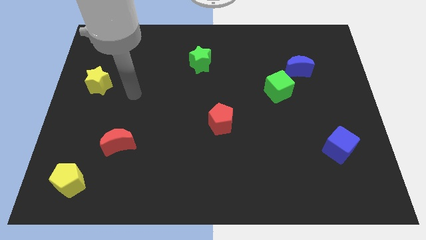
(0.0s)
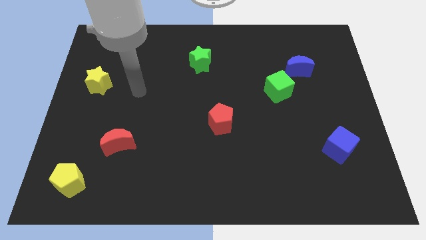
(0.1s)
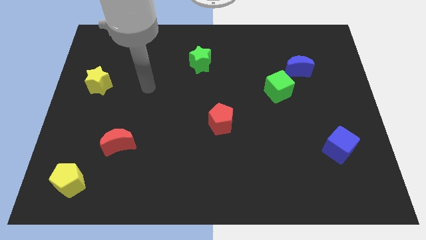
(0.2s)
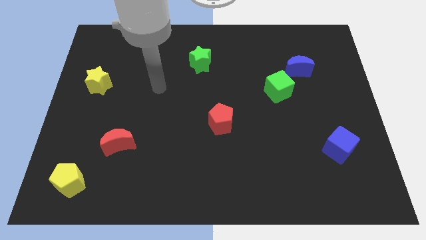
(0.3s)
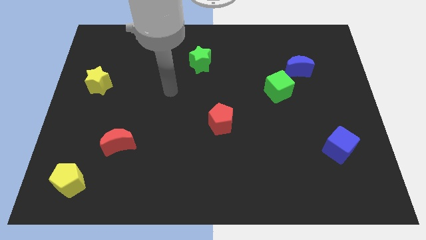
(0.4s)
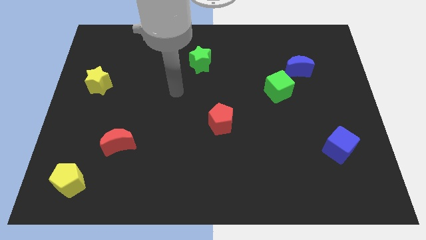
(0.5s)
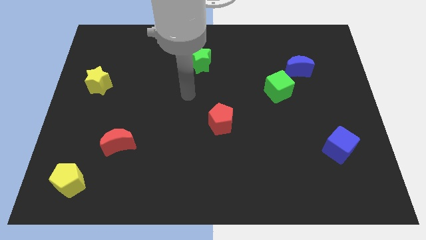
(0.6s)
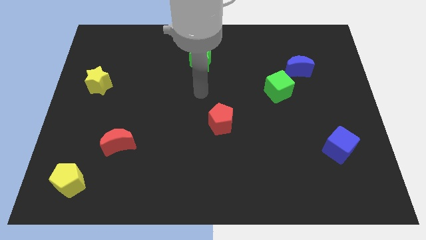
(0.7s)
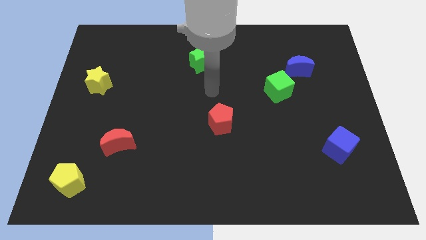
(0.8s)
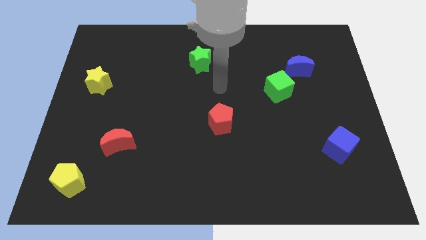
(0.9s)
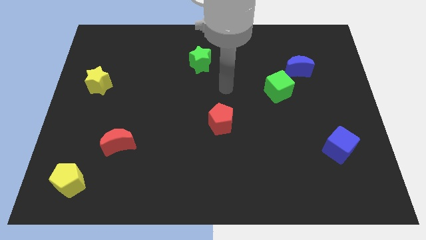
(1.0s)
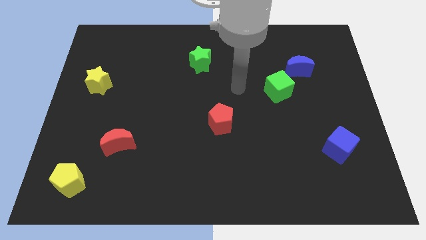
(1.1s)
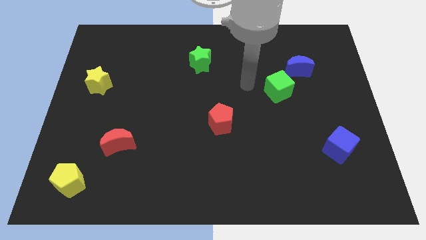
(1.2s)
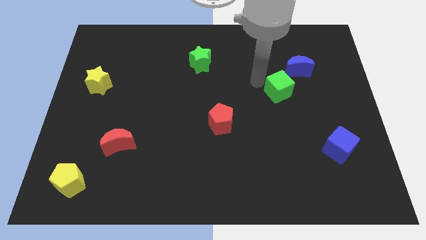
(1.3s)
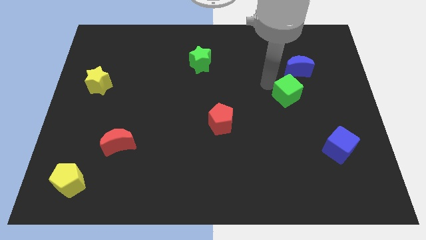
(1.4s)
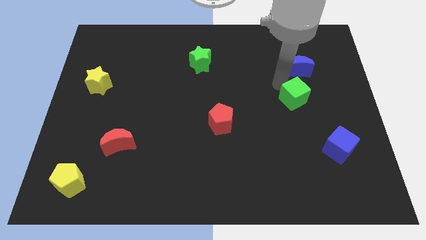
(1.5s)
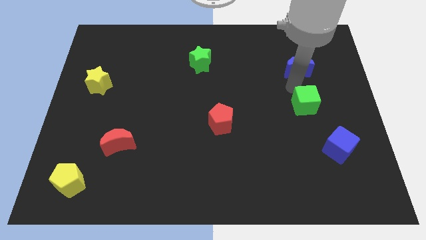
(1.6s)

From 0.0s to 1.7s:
pull the blue moon apart from the green cube

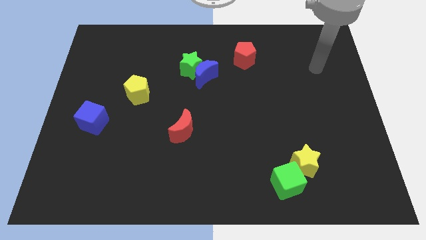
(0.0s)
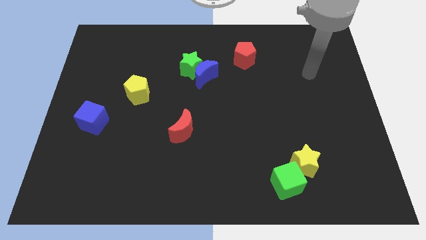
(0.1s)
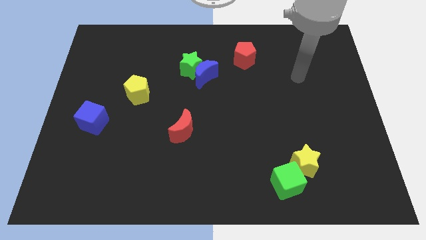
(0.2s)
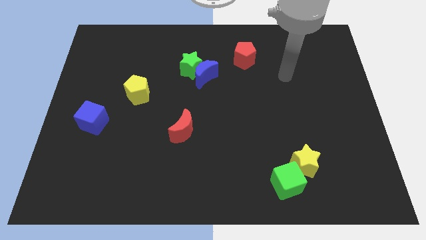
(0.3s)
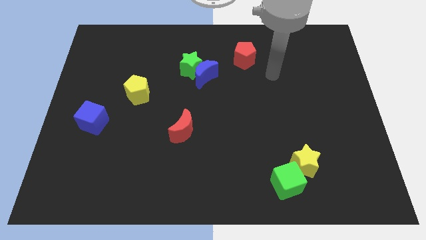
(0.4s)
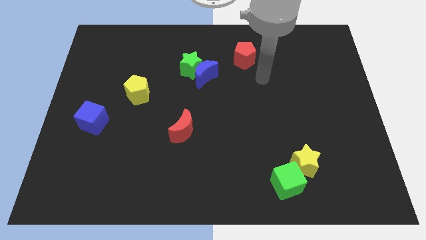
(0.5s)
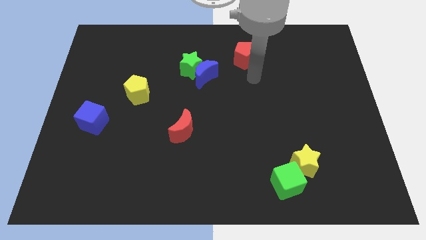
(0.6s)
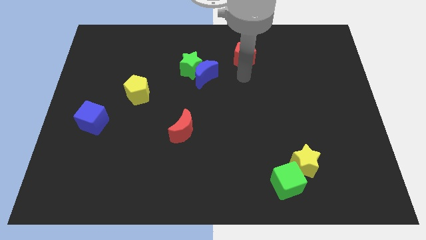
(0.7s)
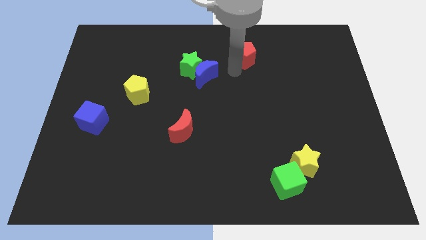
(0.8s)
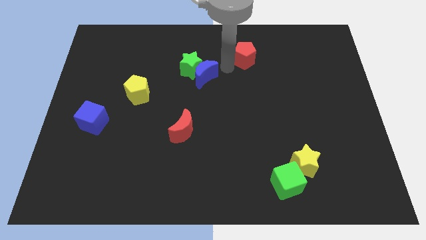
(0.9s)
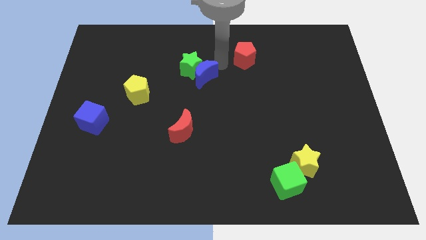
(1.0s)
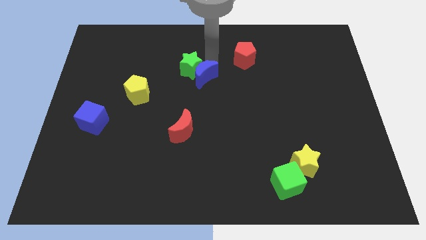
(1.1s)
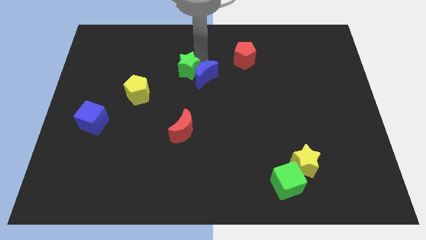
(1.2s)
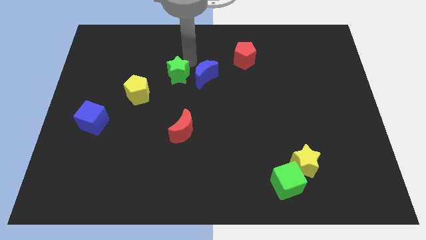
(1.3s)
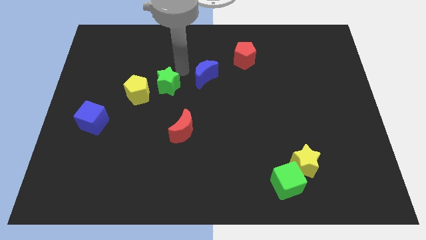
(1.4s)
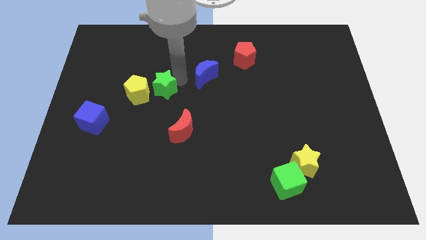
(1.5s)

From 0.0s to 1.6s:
pull the blue moon apart from the green star

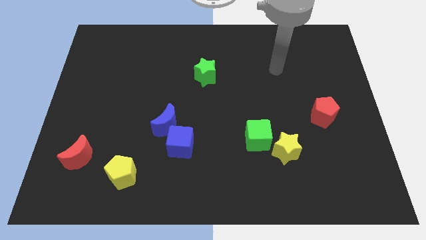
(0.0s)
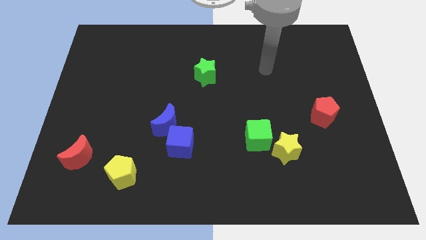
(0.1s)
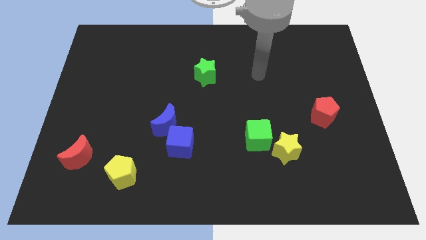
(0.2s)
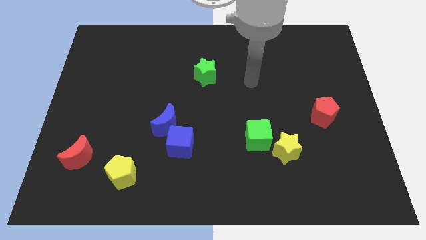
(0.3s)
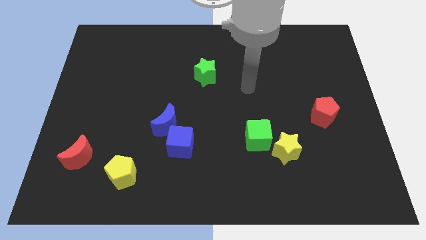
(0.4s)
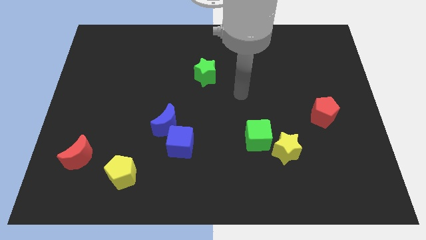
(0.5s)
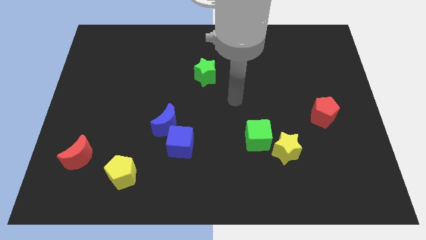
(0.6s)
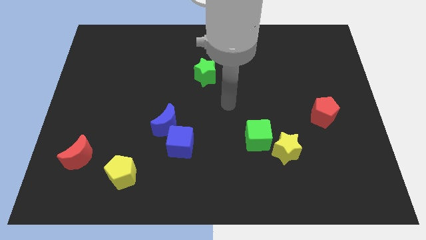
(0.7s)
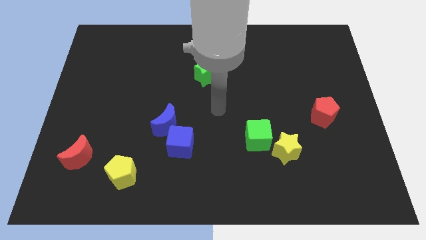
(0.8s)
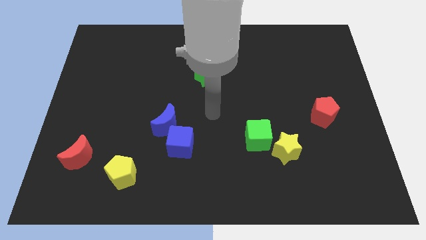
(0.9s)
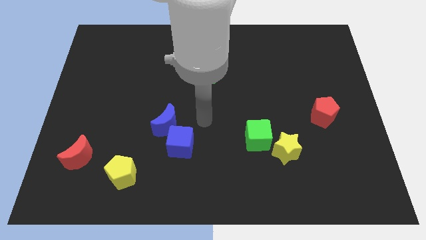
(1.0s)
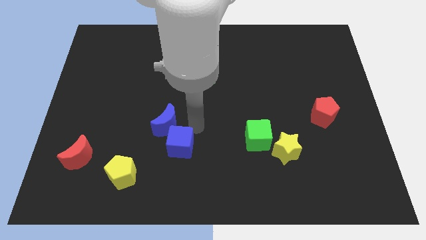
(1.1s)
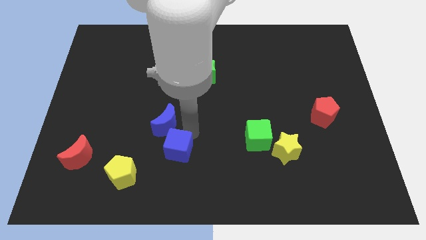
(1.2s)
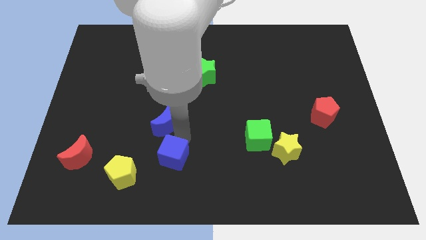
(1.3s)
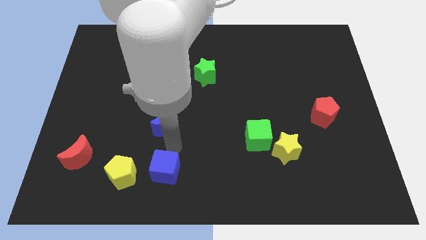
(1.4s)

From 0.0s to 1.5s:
move the blue moon away from the blue cube

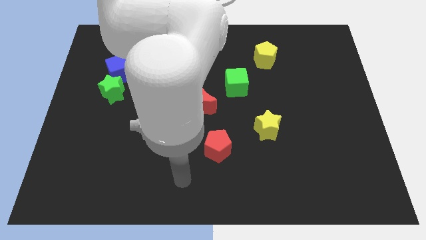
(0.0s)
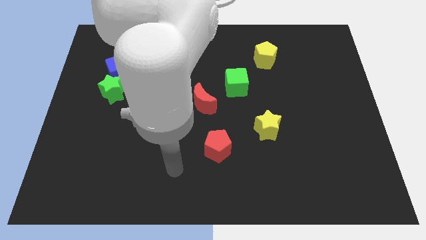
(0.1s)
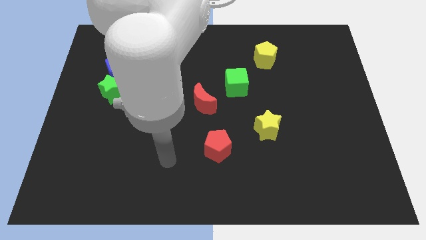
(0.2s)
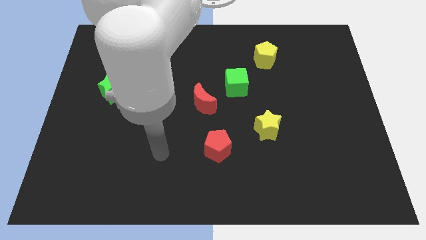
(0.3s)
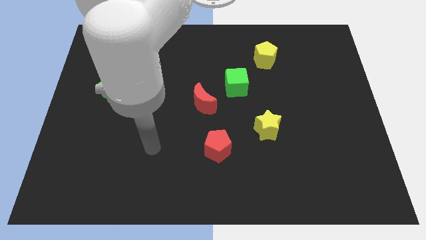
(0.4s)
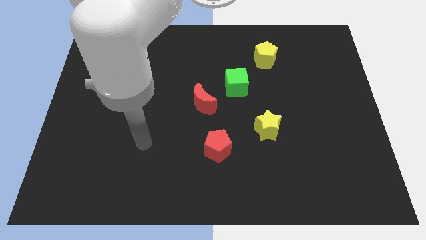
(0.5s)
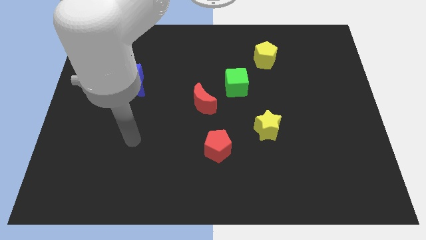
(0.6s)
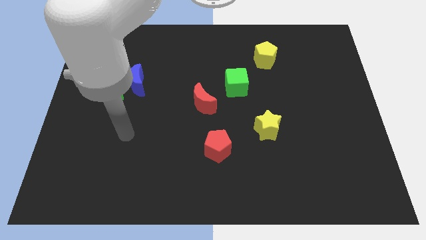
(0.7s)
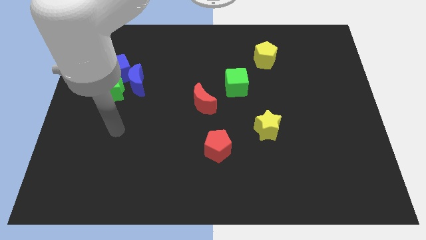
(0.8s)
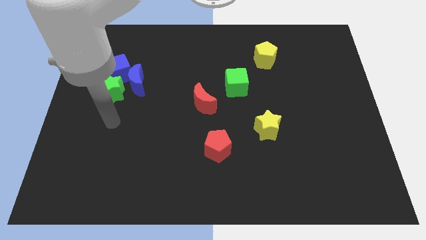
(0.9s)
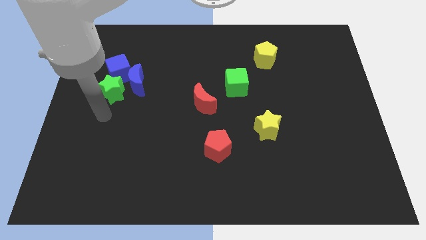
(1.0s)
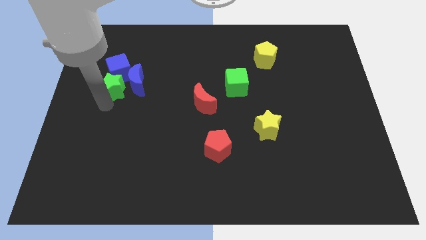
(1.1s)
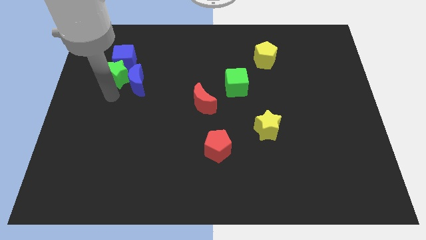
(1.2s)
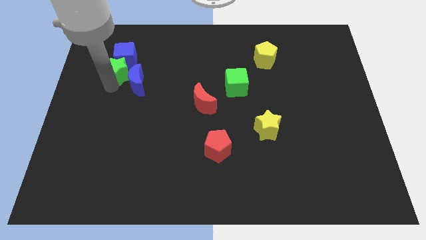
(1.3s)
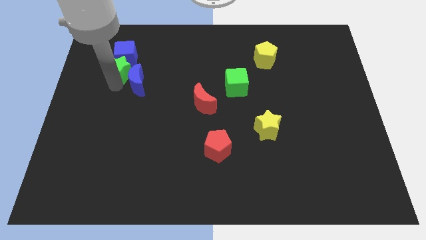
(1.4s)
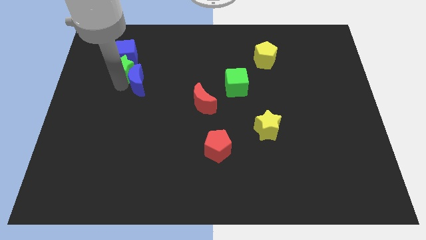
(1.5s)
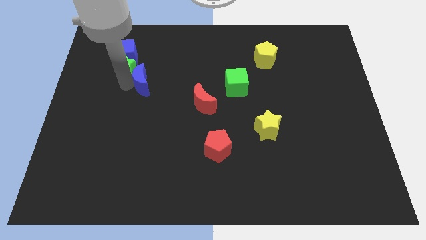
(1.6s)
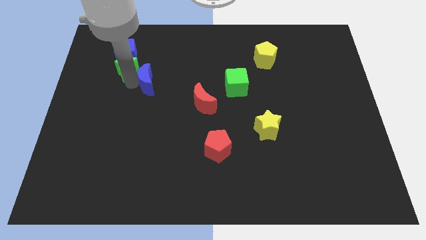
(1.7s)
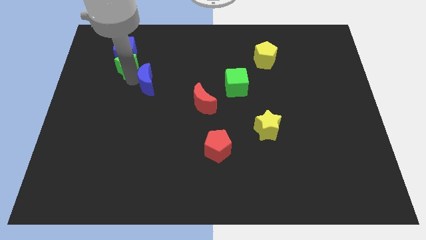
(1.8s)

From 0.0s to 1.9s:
separate the blue moon from the green star and blue cube

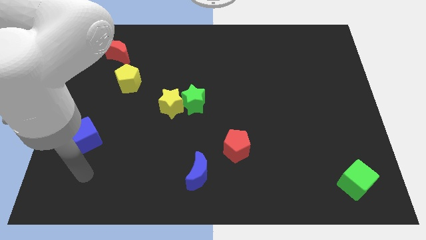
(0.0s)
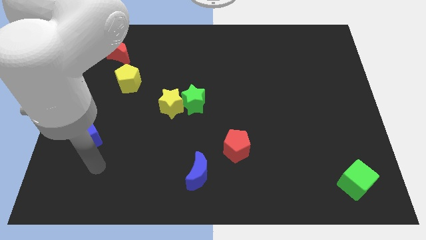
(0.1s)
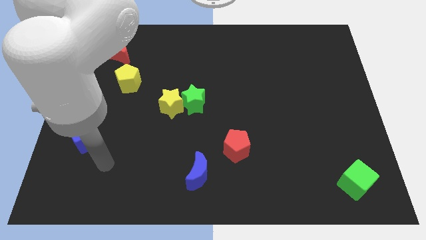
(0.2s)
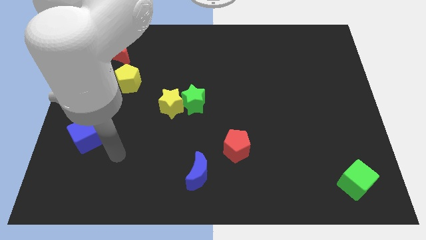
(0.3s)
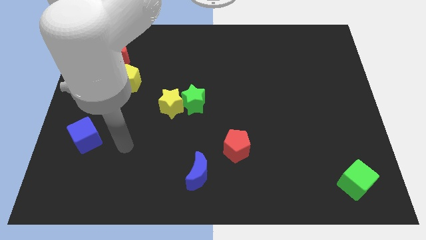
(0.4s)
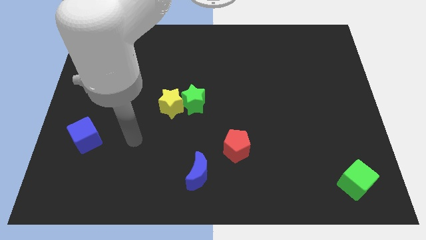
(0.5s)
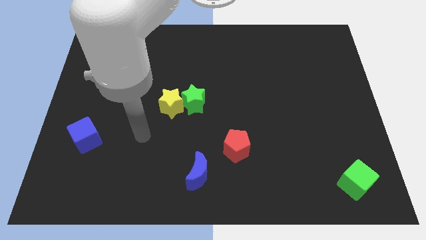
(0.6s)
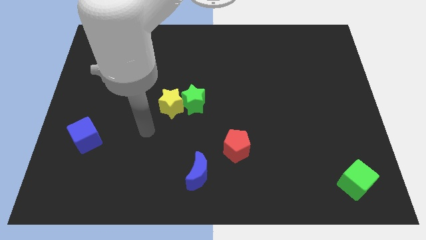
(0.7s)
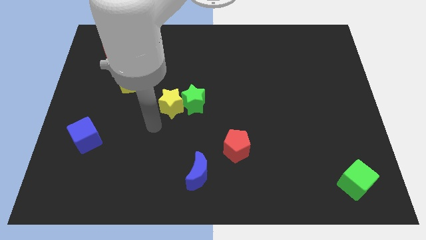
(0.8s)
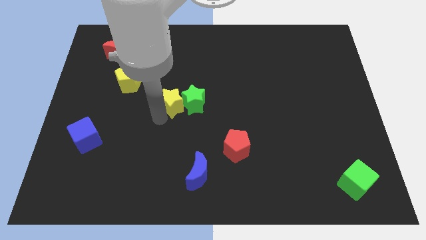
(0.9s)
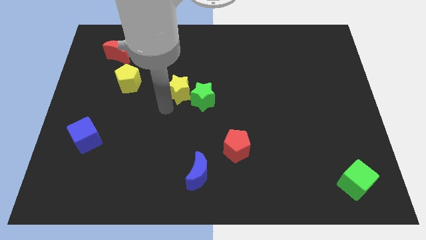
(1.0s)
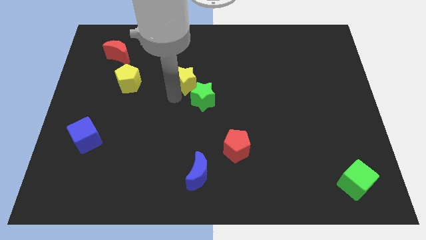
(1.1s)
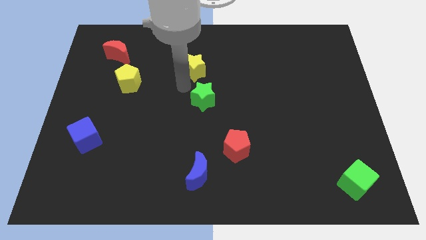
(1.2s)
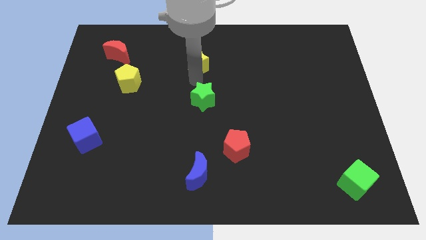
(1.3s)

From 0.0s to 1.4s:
pull the green star apart from the yellow star

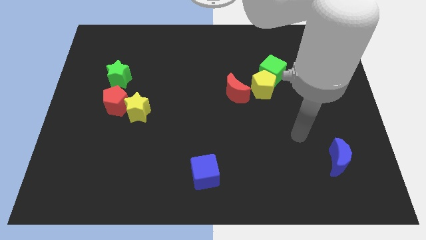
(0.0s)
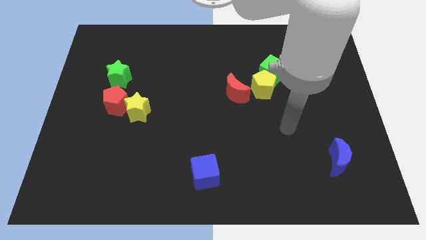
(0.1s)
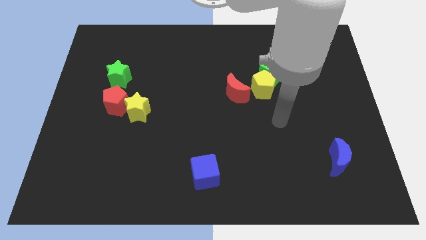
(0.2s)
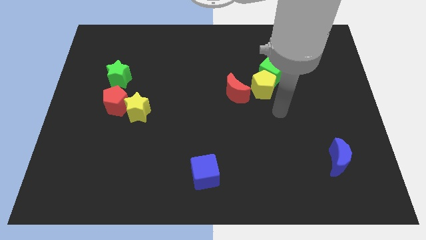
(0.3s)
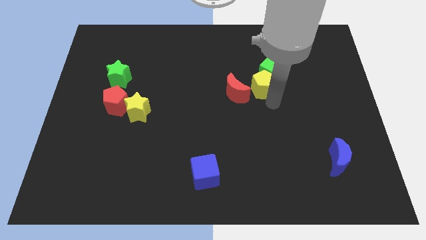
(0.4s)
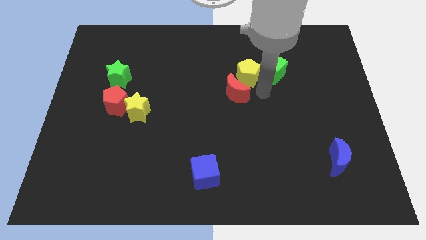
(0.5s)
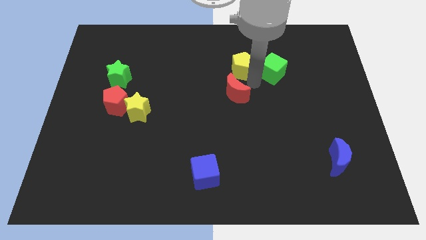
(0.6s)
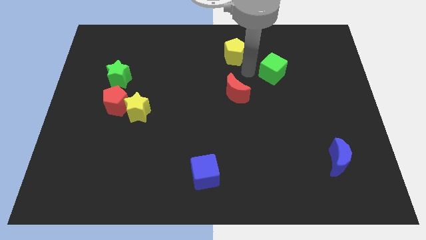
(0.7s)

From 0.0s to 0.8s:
move the green cube away from the yellow pentagon

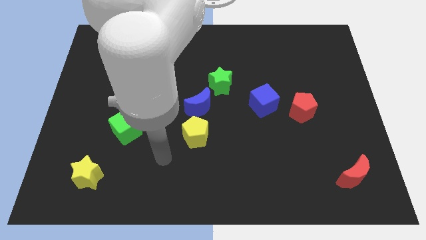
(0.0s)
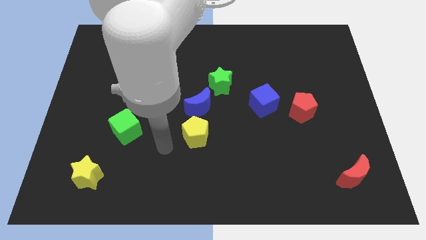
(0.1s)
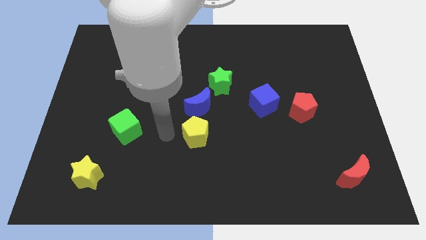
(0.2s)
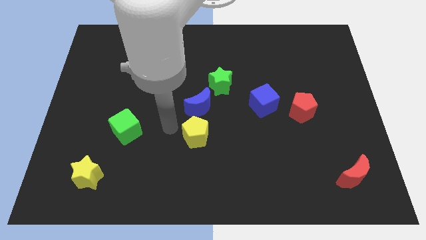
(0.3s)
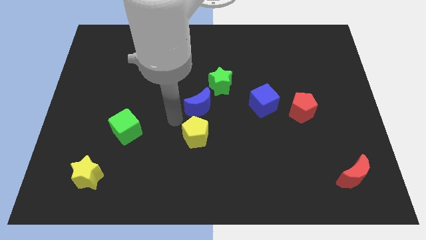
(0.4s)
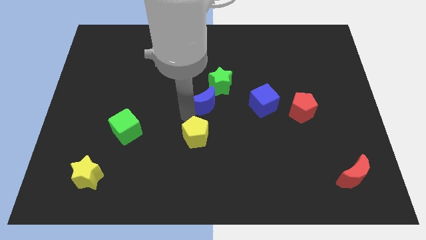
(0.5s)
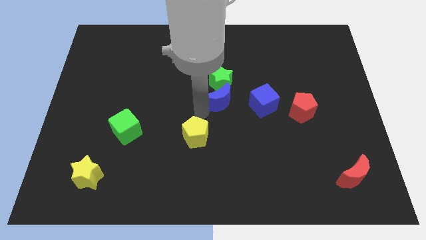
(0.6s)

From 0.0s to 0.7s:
move the yellow pentagon away from the blue moon
